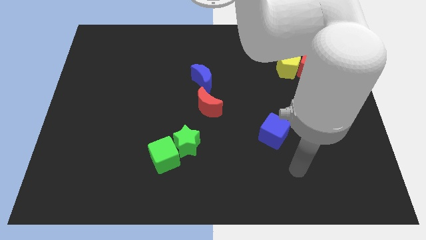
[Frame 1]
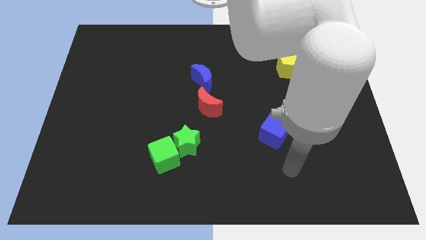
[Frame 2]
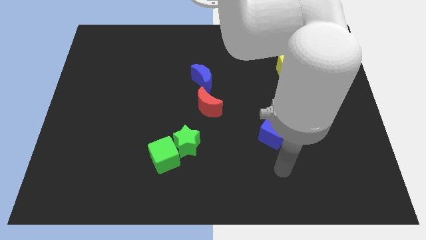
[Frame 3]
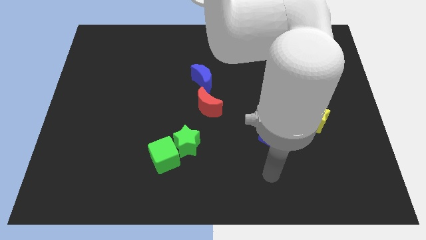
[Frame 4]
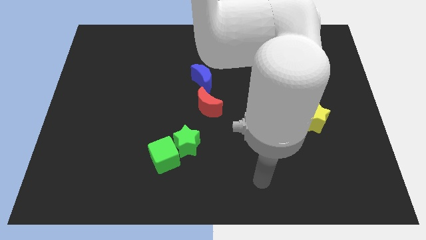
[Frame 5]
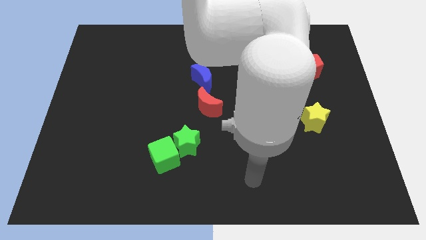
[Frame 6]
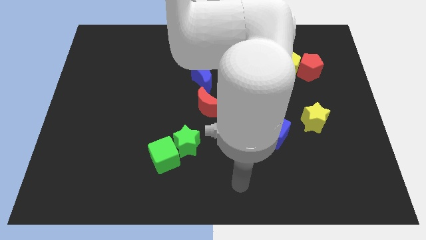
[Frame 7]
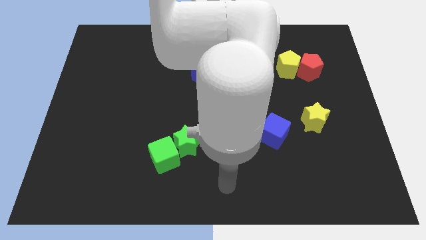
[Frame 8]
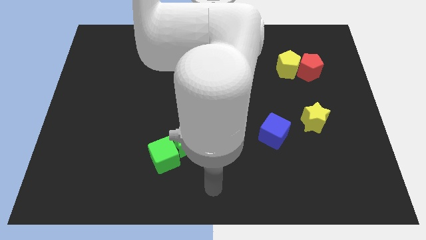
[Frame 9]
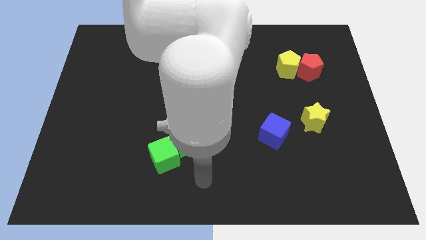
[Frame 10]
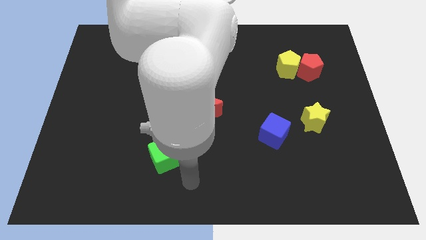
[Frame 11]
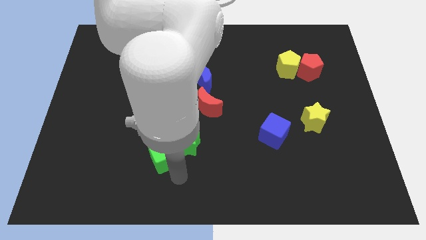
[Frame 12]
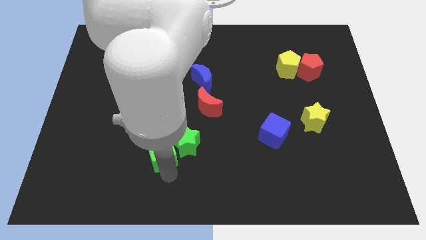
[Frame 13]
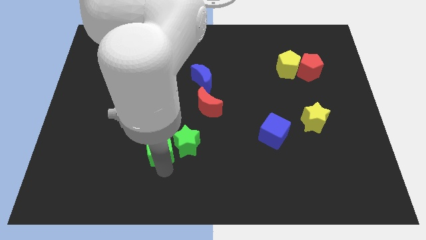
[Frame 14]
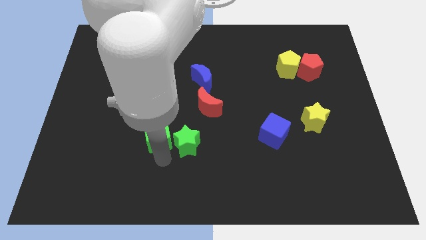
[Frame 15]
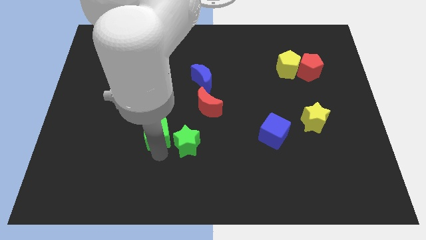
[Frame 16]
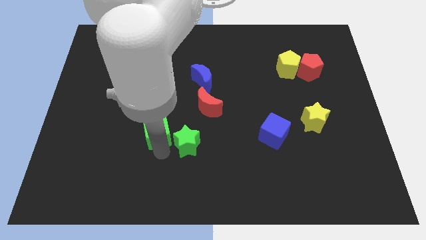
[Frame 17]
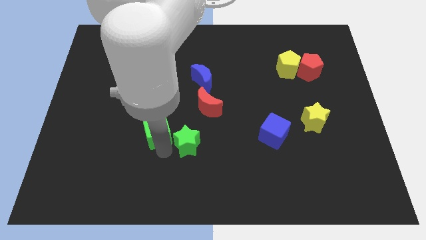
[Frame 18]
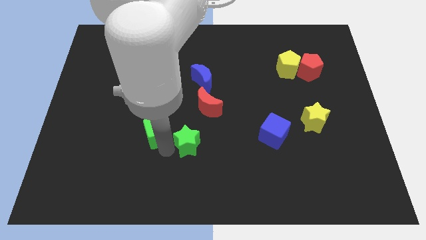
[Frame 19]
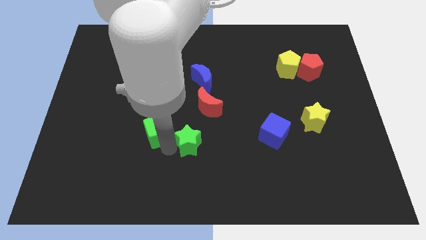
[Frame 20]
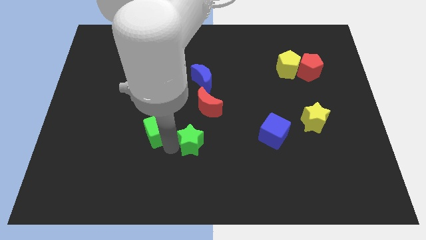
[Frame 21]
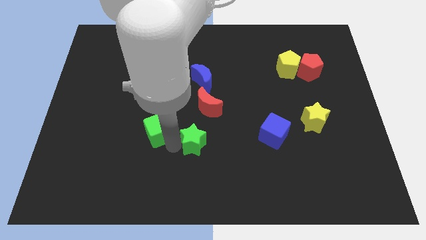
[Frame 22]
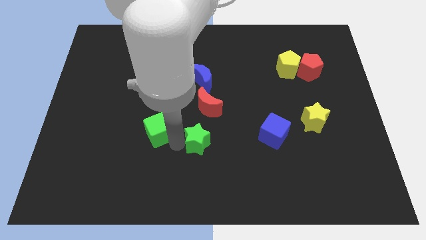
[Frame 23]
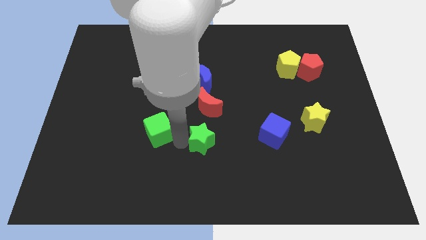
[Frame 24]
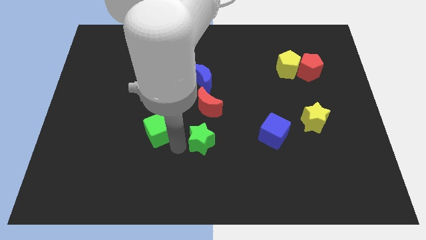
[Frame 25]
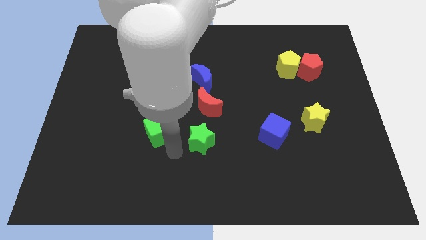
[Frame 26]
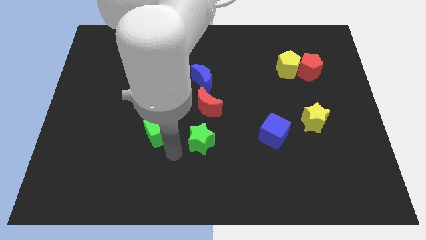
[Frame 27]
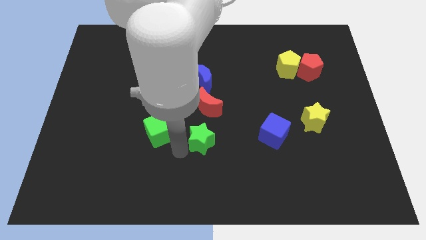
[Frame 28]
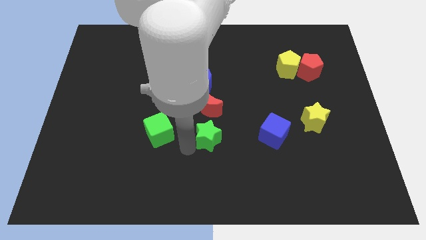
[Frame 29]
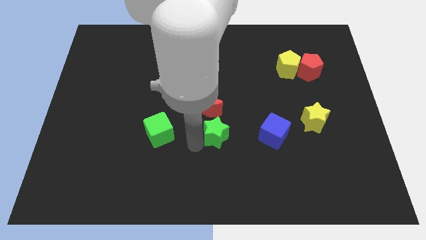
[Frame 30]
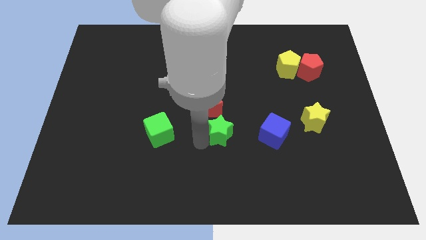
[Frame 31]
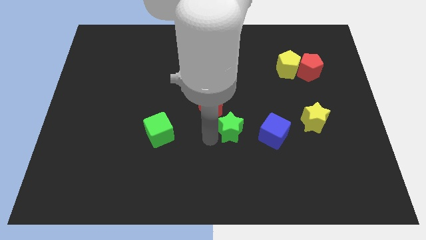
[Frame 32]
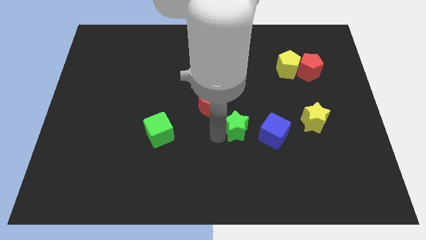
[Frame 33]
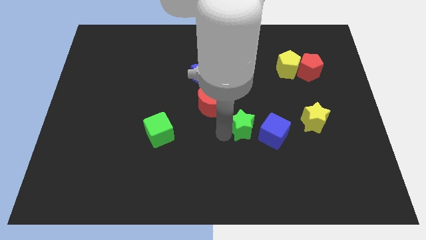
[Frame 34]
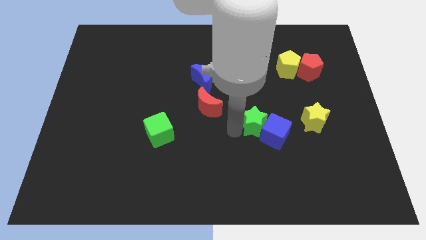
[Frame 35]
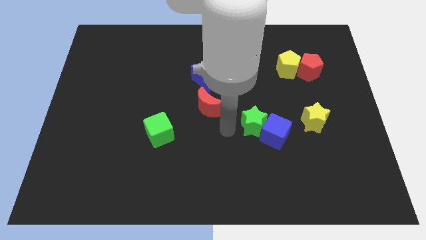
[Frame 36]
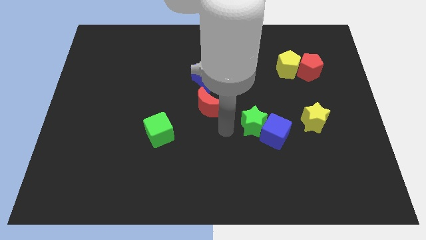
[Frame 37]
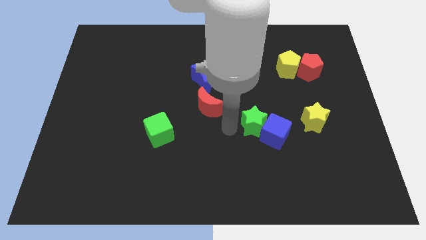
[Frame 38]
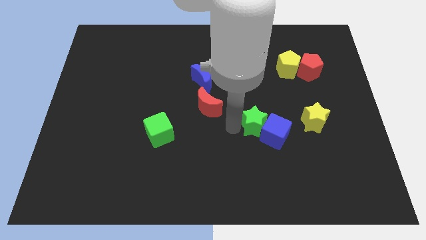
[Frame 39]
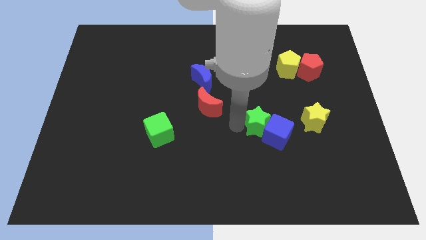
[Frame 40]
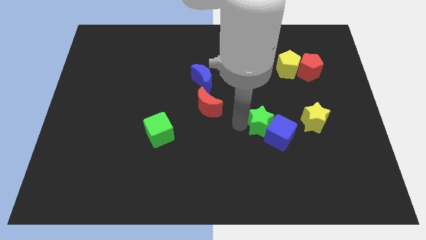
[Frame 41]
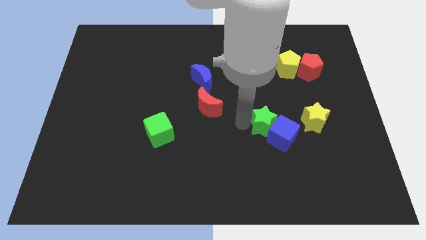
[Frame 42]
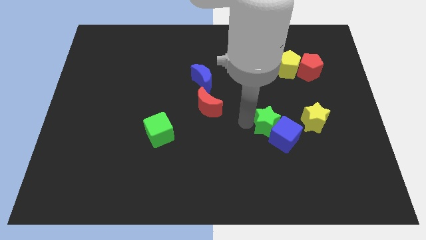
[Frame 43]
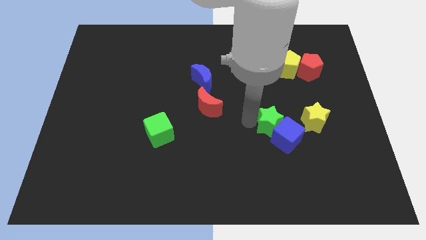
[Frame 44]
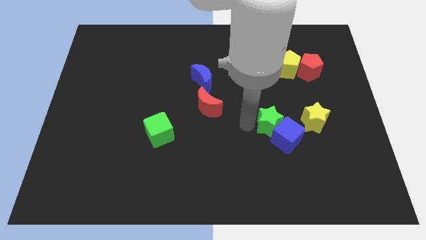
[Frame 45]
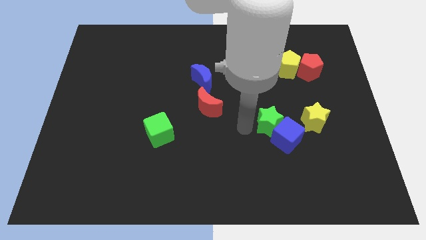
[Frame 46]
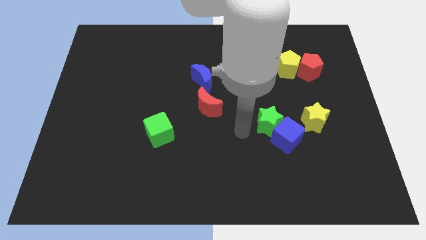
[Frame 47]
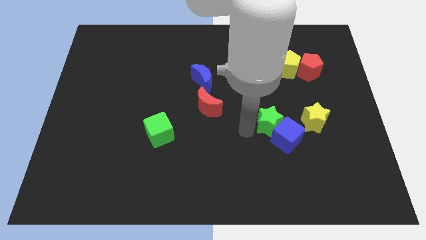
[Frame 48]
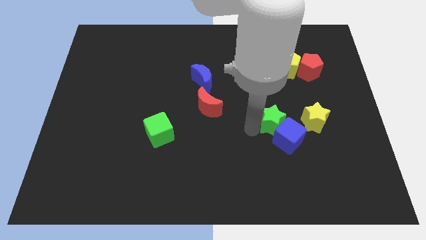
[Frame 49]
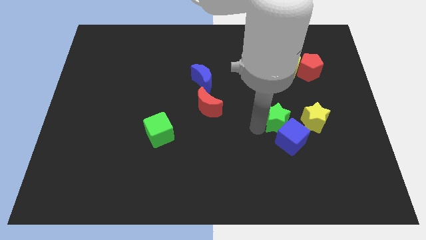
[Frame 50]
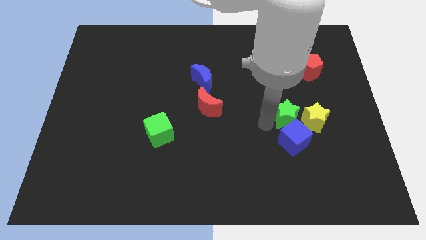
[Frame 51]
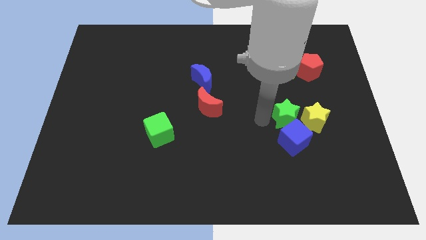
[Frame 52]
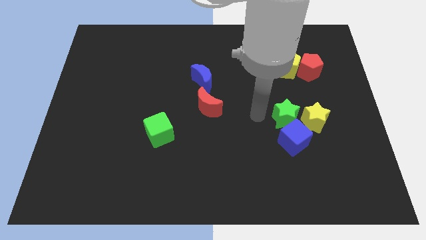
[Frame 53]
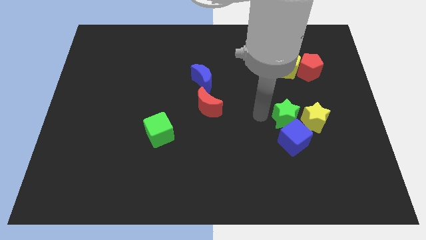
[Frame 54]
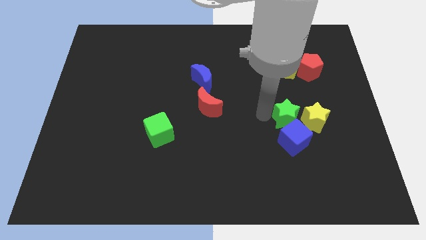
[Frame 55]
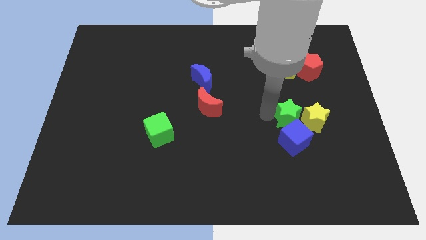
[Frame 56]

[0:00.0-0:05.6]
push the green star towards the yellow star

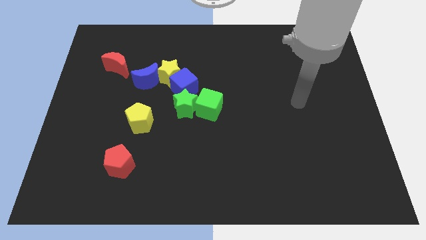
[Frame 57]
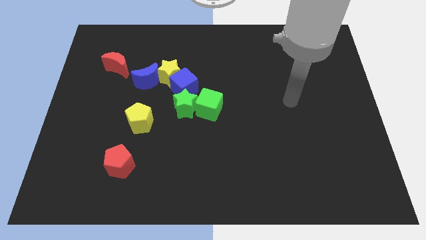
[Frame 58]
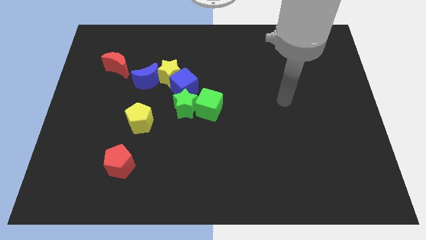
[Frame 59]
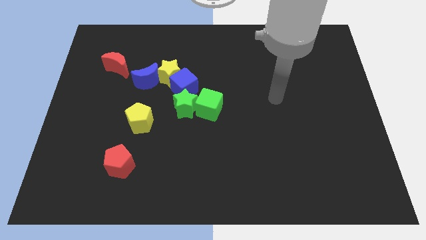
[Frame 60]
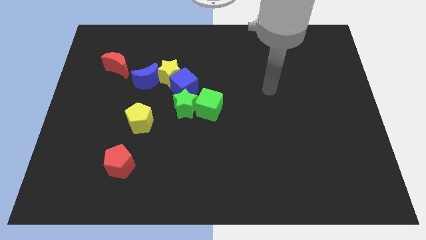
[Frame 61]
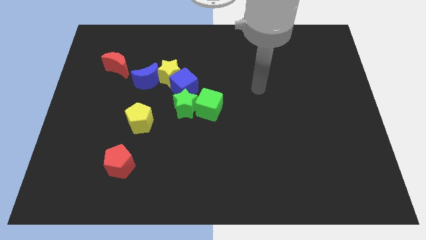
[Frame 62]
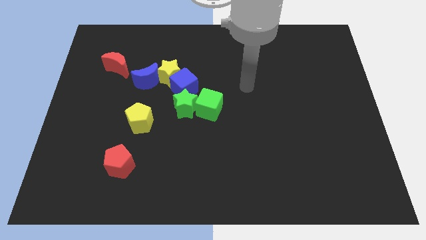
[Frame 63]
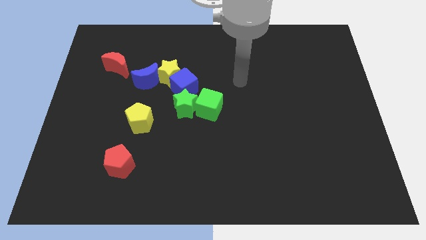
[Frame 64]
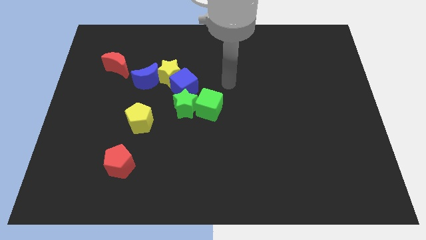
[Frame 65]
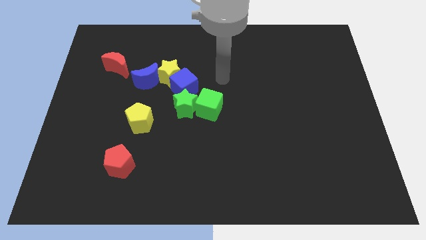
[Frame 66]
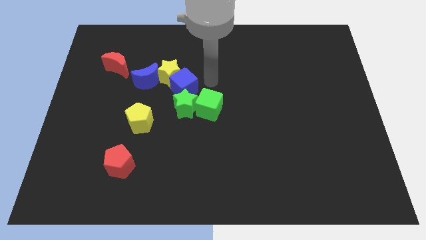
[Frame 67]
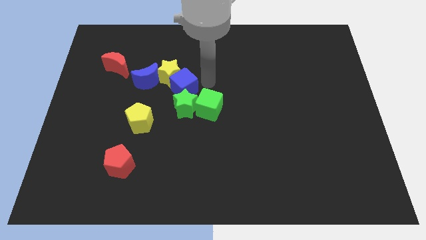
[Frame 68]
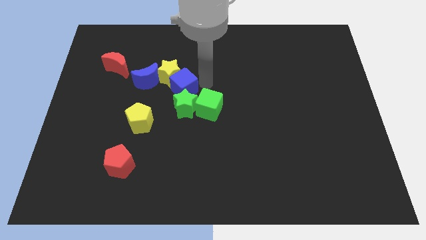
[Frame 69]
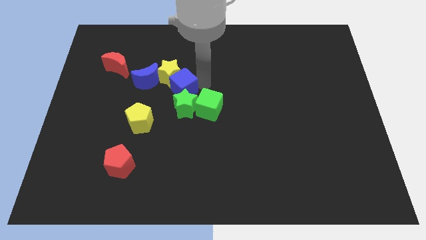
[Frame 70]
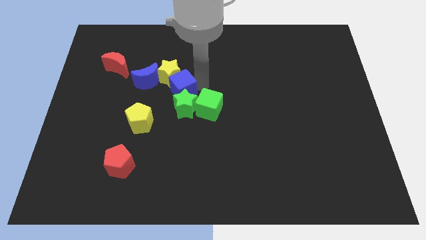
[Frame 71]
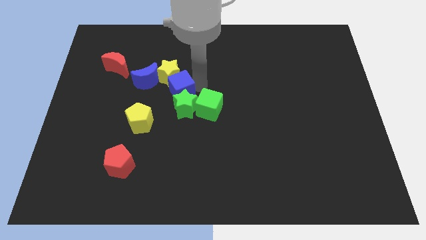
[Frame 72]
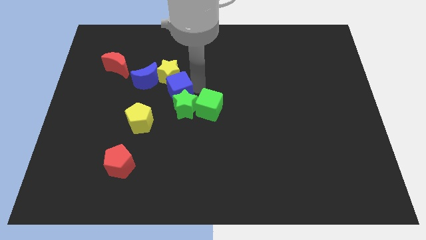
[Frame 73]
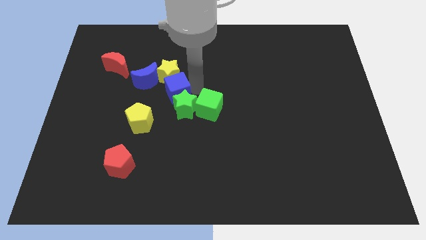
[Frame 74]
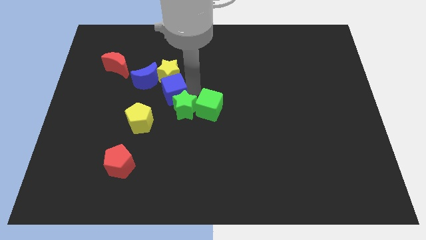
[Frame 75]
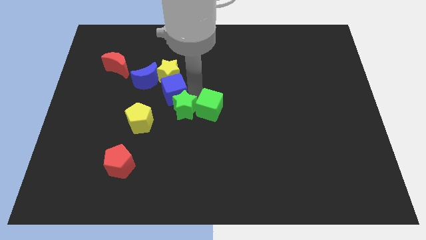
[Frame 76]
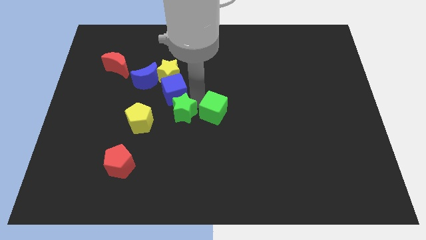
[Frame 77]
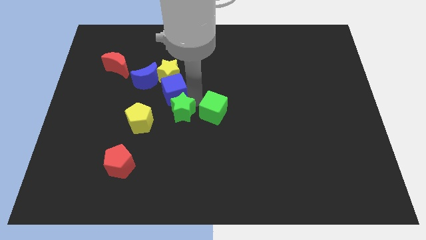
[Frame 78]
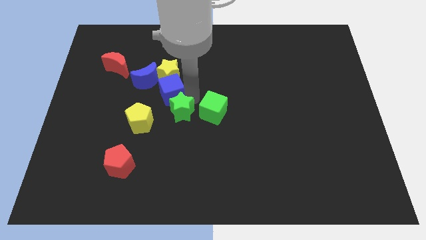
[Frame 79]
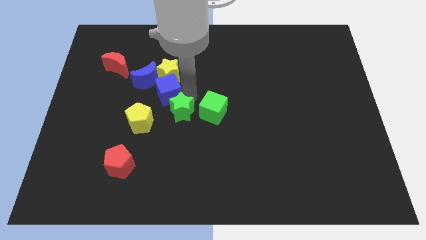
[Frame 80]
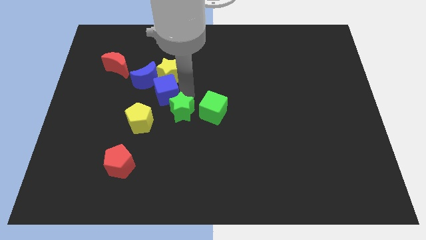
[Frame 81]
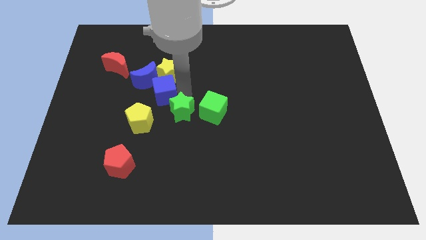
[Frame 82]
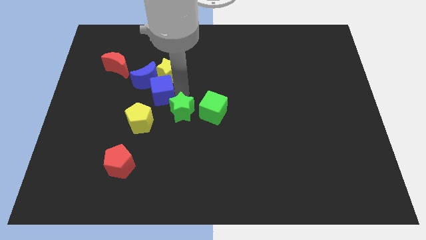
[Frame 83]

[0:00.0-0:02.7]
move the blue cube towards the blue moon
